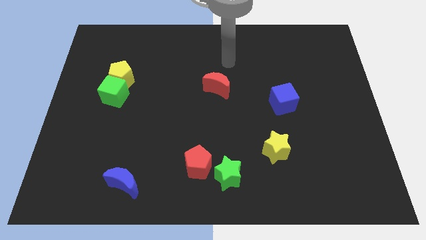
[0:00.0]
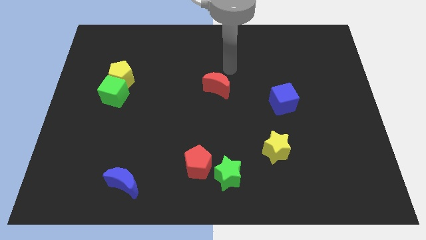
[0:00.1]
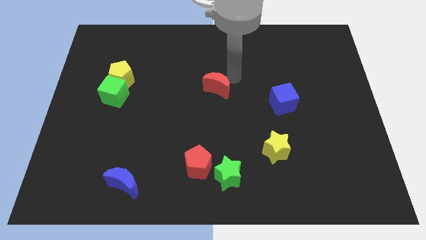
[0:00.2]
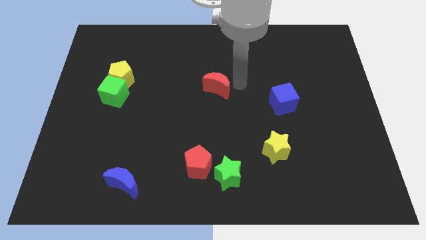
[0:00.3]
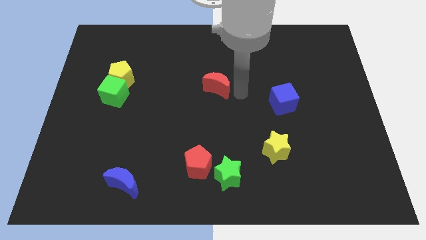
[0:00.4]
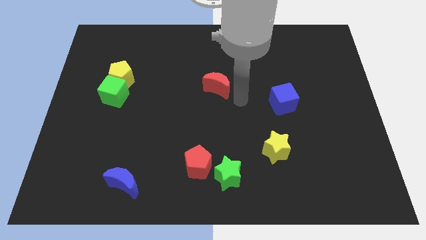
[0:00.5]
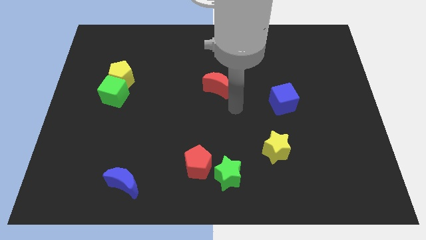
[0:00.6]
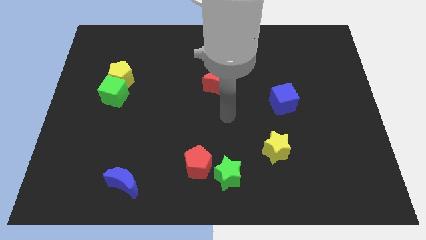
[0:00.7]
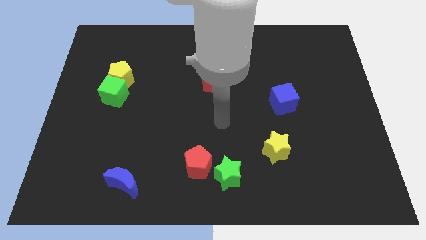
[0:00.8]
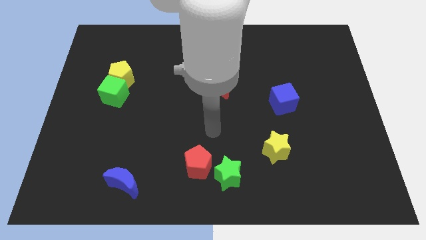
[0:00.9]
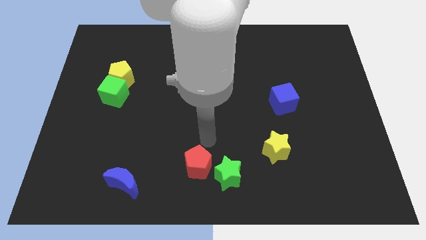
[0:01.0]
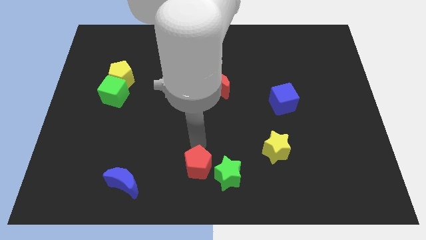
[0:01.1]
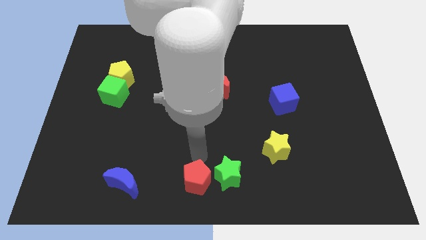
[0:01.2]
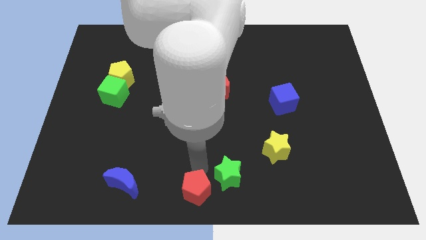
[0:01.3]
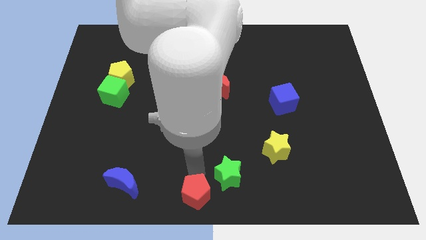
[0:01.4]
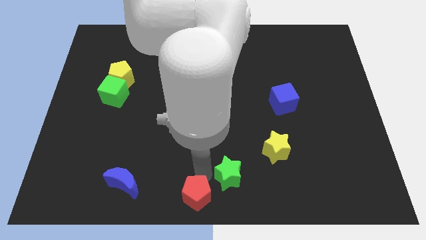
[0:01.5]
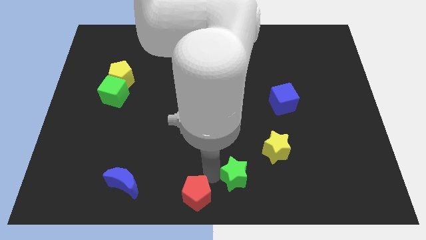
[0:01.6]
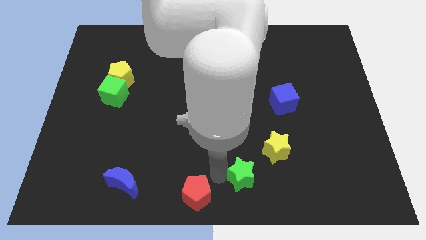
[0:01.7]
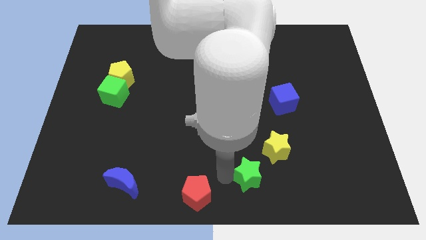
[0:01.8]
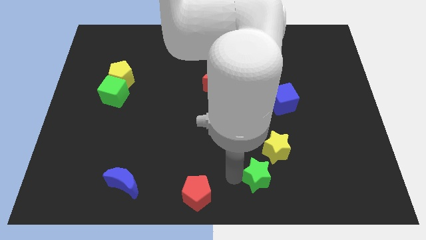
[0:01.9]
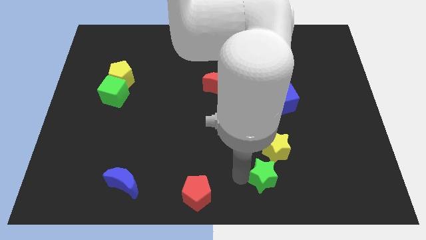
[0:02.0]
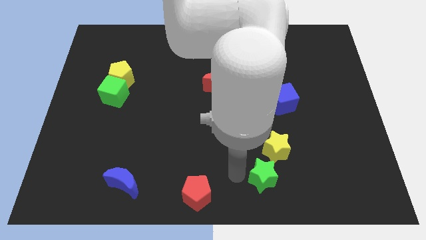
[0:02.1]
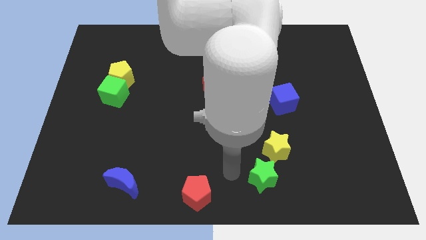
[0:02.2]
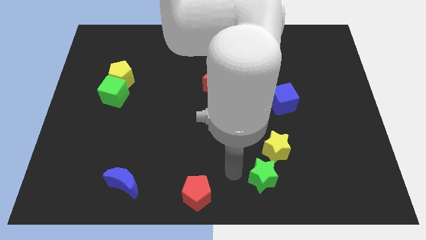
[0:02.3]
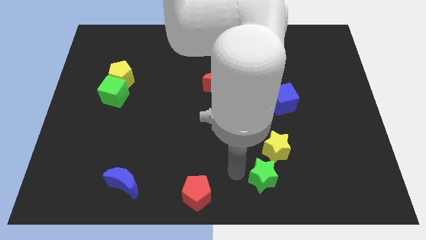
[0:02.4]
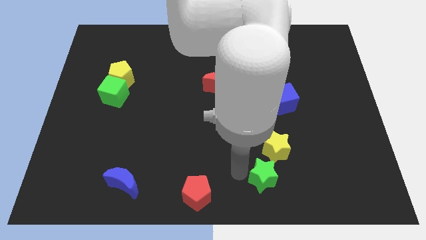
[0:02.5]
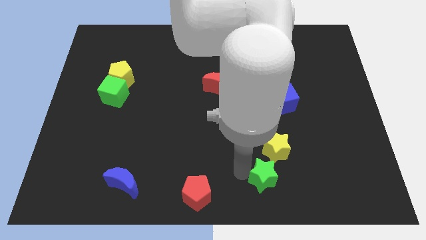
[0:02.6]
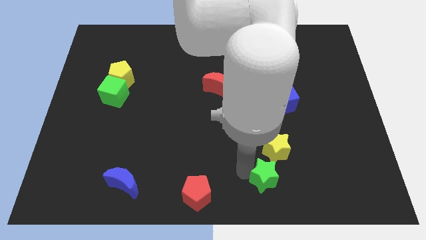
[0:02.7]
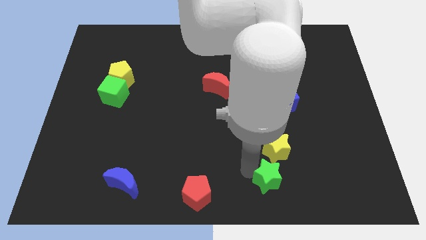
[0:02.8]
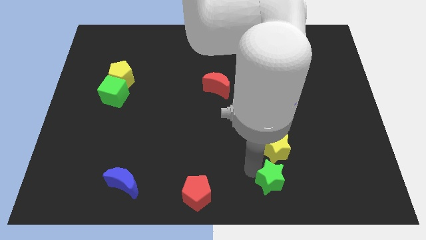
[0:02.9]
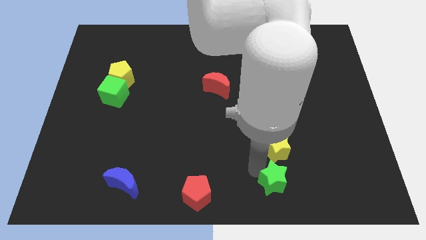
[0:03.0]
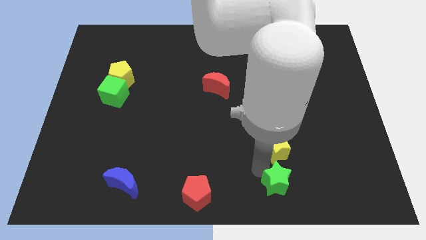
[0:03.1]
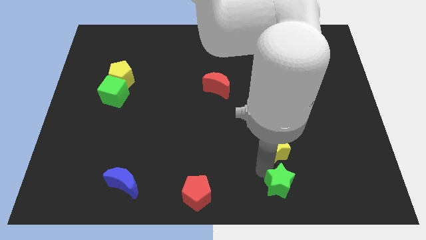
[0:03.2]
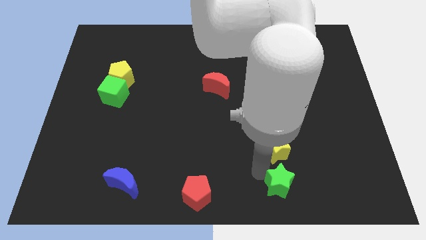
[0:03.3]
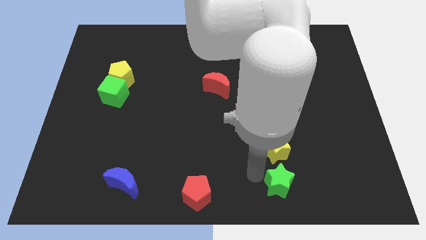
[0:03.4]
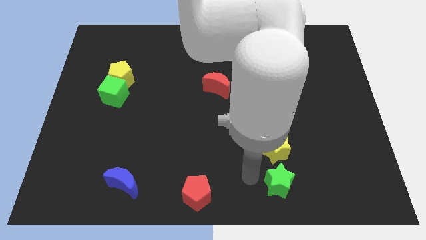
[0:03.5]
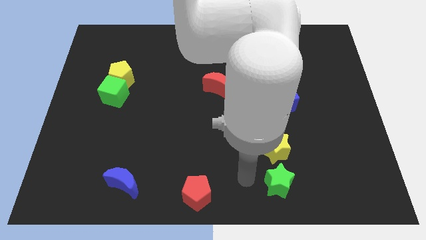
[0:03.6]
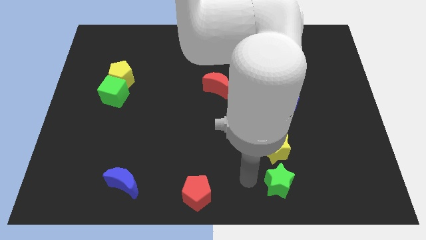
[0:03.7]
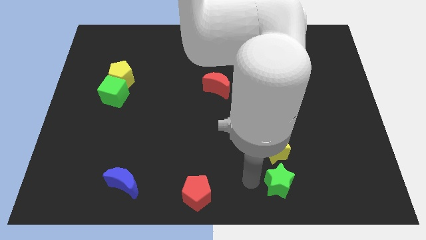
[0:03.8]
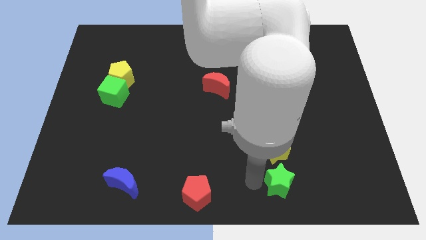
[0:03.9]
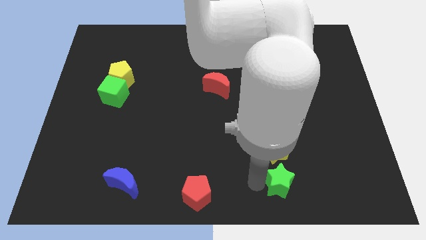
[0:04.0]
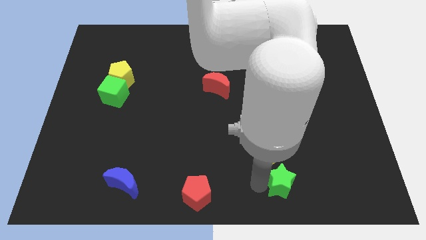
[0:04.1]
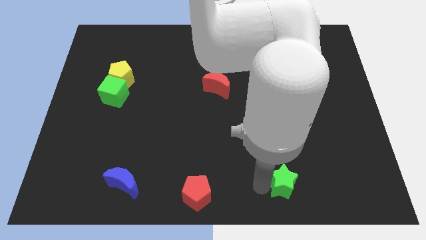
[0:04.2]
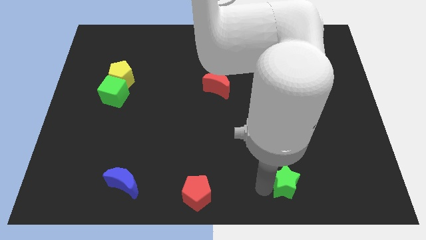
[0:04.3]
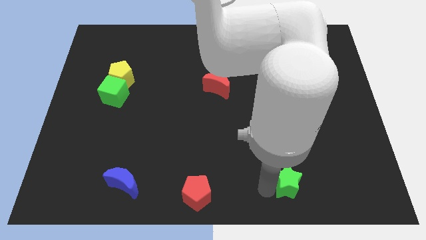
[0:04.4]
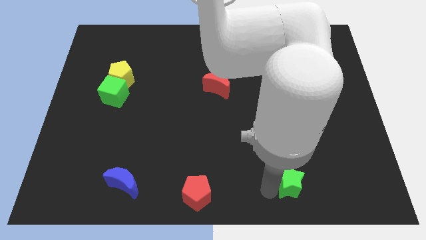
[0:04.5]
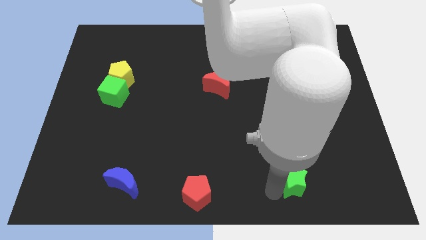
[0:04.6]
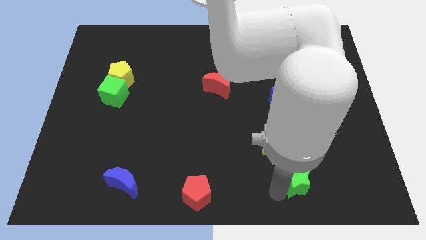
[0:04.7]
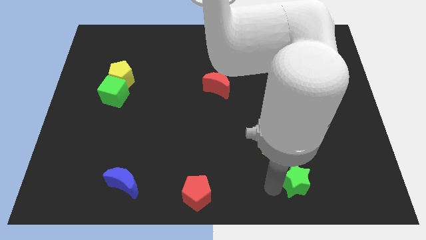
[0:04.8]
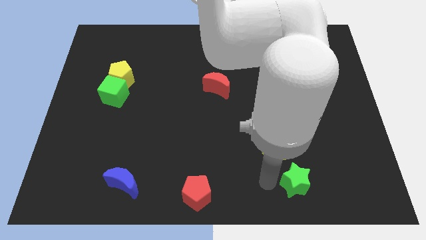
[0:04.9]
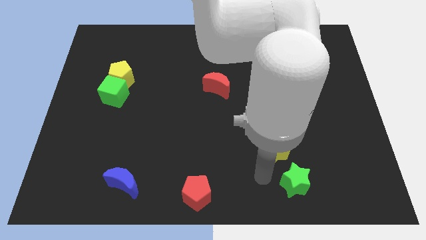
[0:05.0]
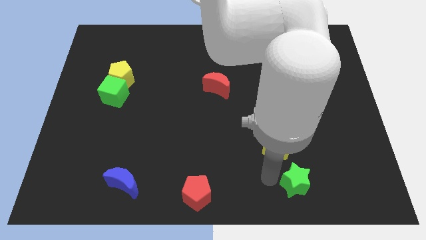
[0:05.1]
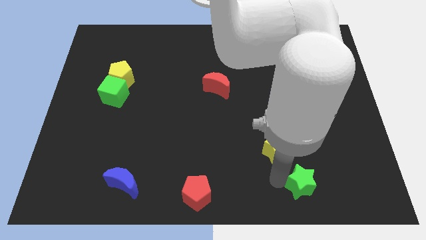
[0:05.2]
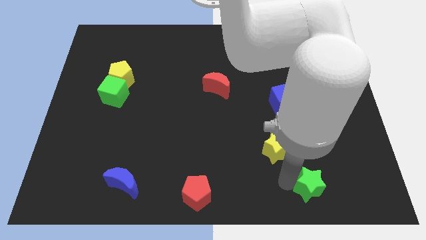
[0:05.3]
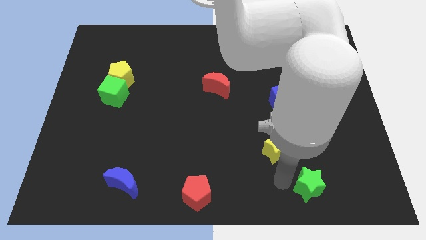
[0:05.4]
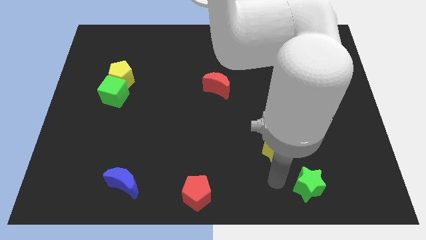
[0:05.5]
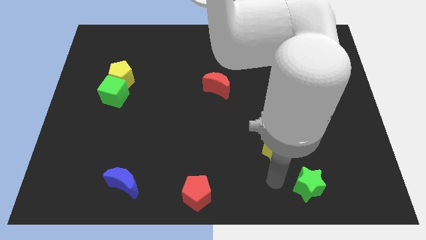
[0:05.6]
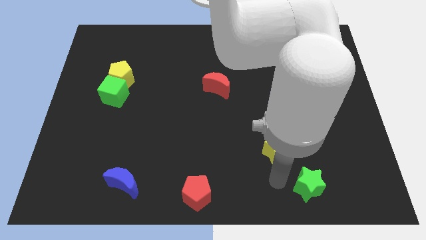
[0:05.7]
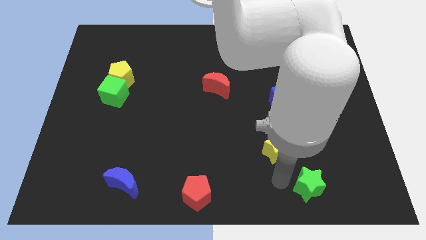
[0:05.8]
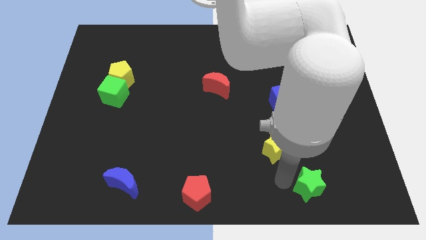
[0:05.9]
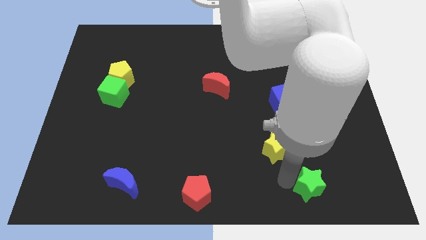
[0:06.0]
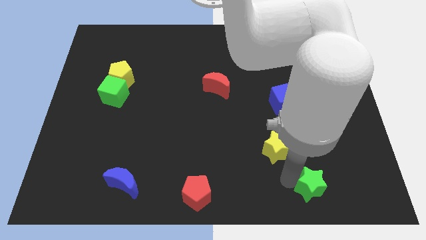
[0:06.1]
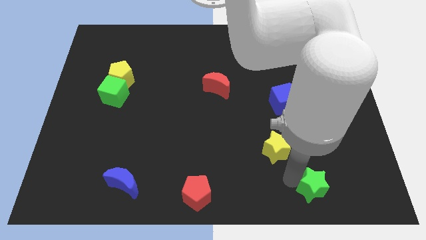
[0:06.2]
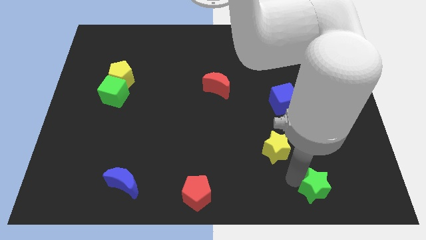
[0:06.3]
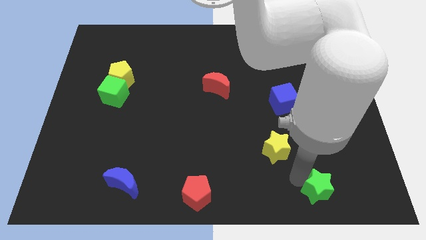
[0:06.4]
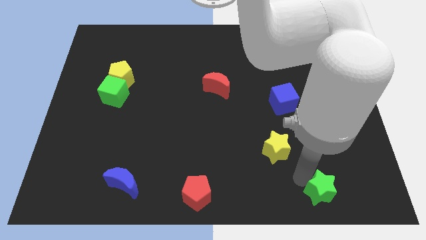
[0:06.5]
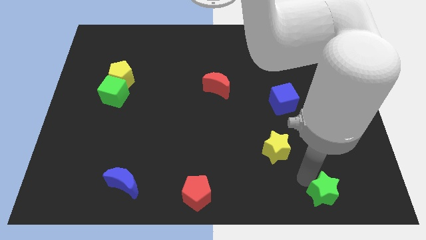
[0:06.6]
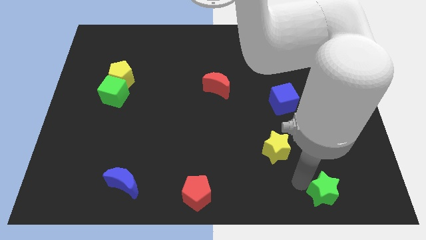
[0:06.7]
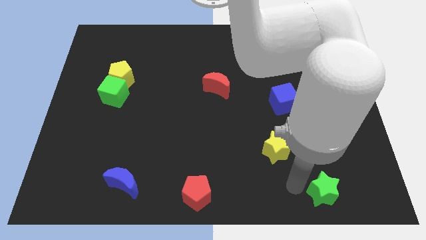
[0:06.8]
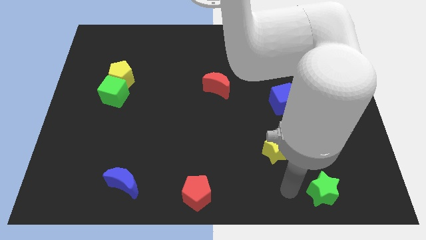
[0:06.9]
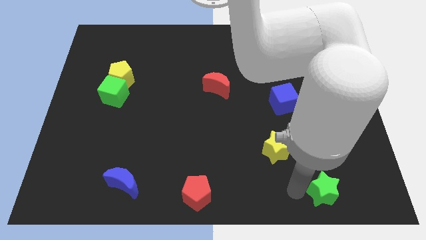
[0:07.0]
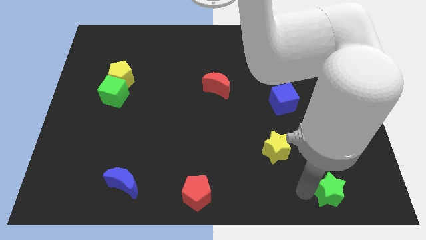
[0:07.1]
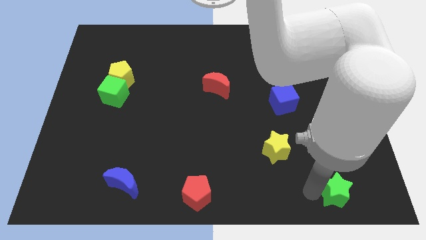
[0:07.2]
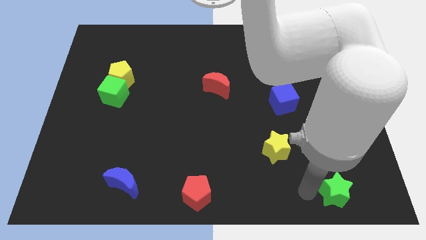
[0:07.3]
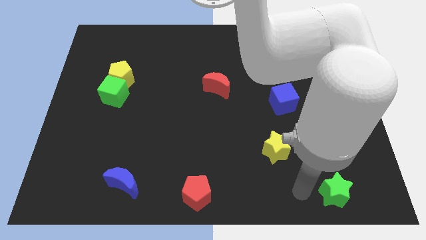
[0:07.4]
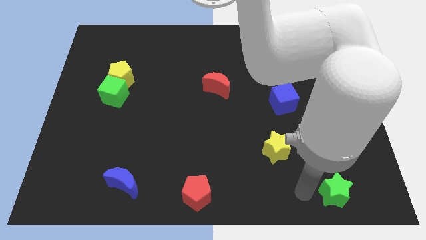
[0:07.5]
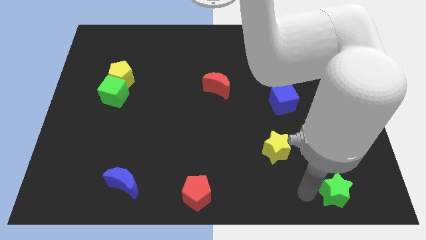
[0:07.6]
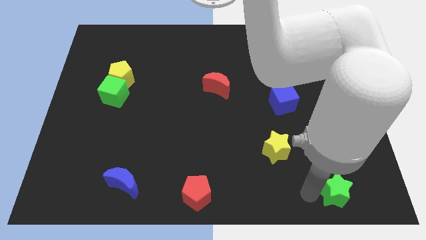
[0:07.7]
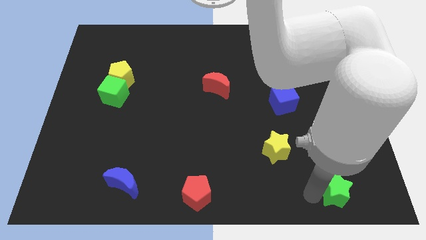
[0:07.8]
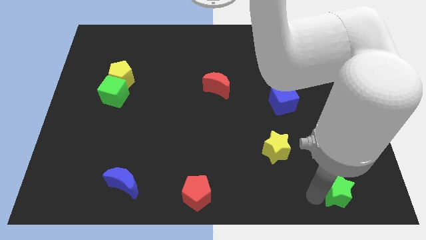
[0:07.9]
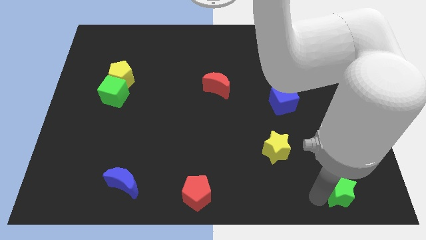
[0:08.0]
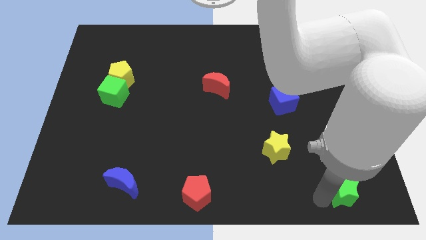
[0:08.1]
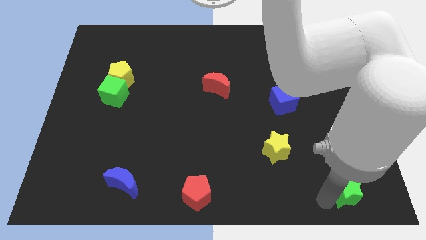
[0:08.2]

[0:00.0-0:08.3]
slide the green star to the bottom right corner
